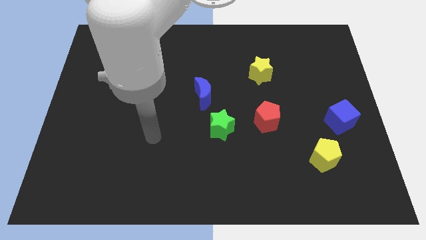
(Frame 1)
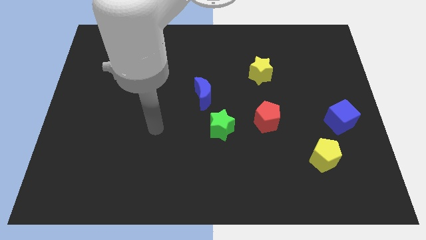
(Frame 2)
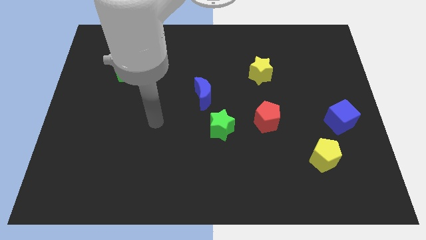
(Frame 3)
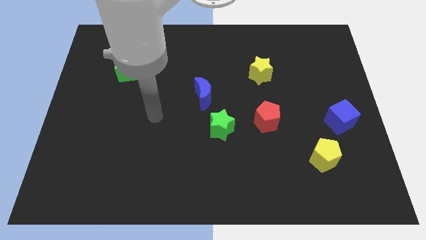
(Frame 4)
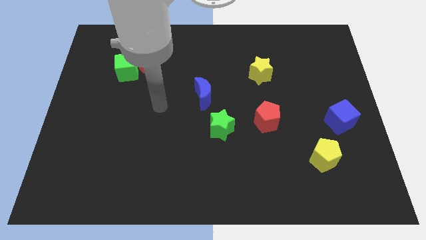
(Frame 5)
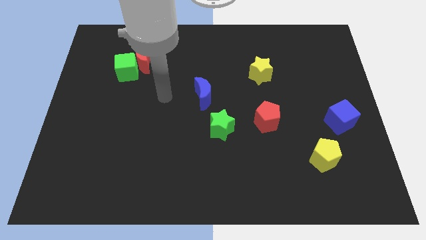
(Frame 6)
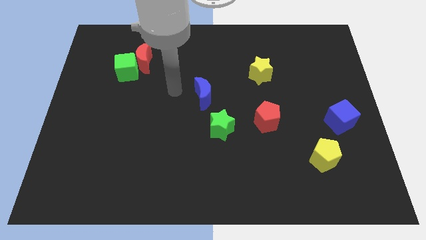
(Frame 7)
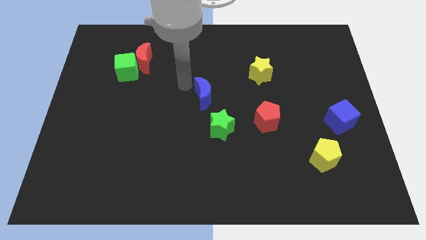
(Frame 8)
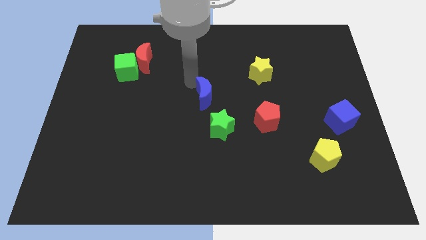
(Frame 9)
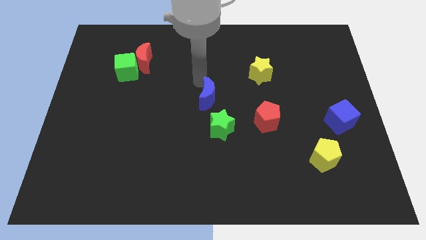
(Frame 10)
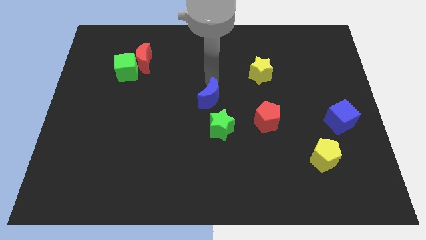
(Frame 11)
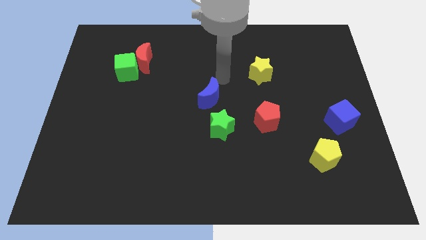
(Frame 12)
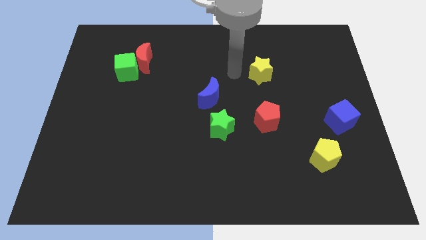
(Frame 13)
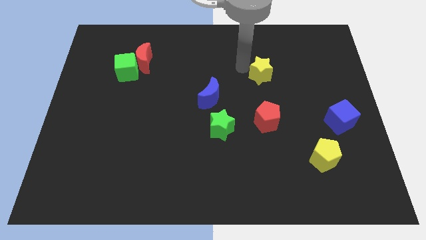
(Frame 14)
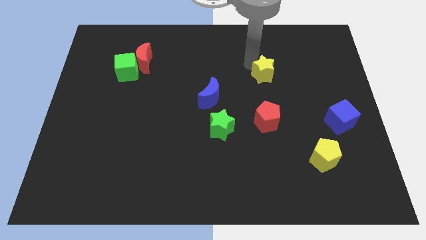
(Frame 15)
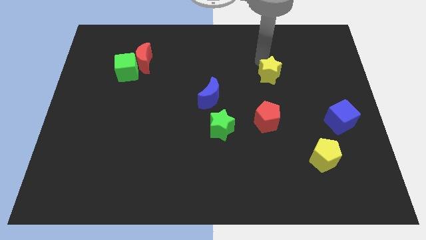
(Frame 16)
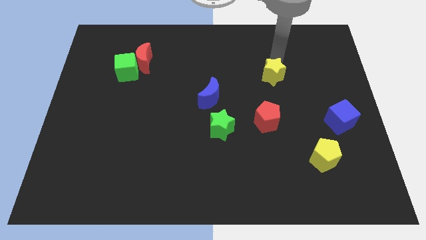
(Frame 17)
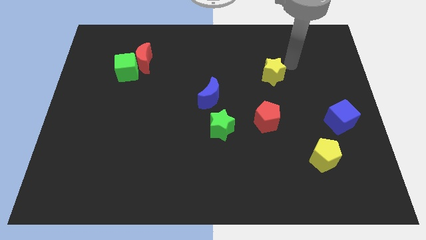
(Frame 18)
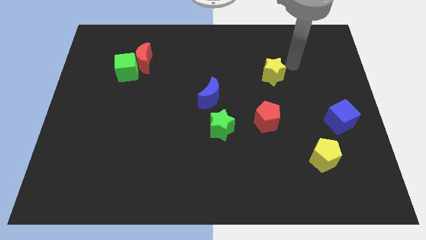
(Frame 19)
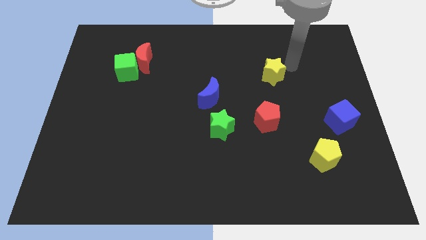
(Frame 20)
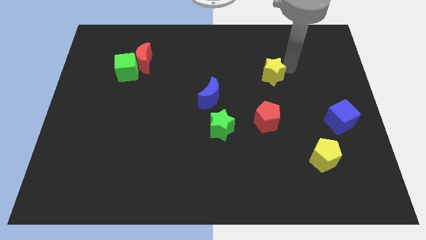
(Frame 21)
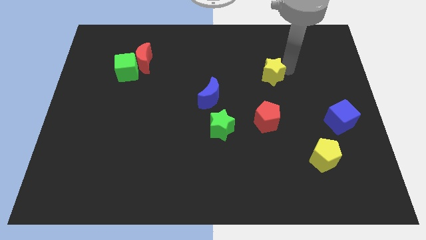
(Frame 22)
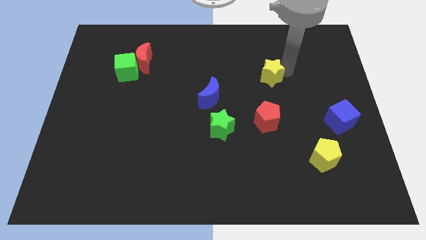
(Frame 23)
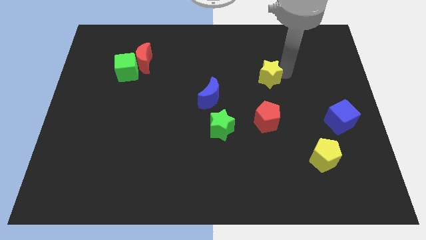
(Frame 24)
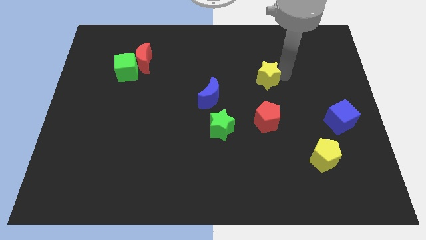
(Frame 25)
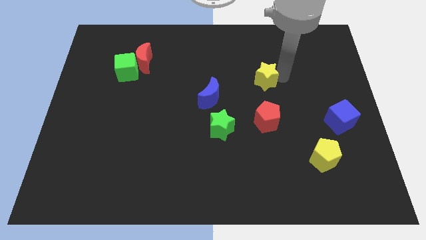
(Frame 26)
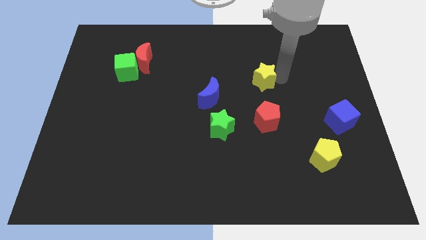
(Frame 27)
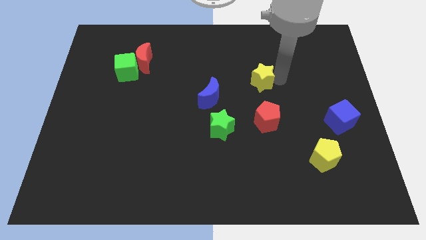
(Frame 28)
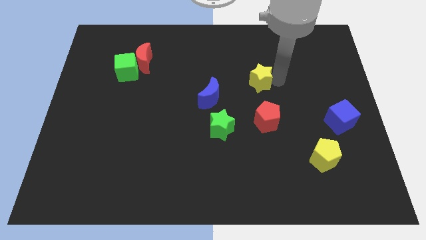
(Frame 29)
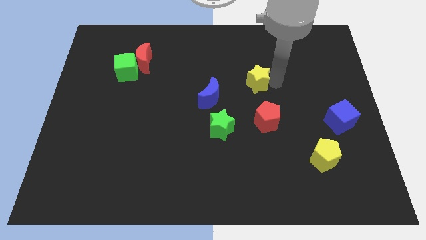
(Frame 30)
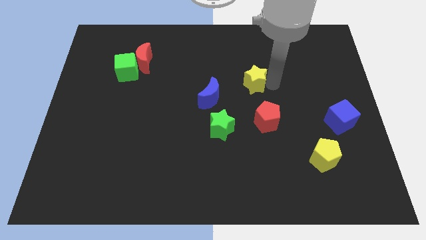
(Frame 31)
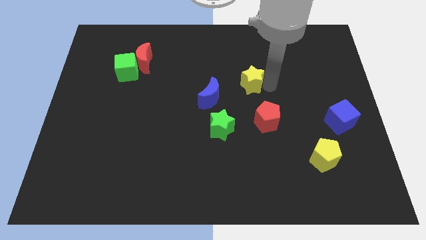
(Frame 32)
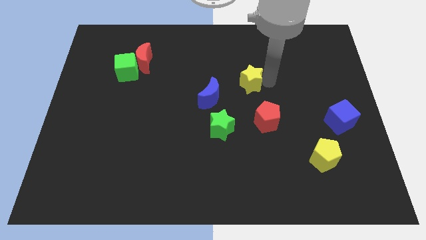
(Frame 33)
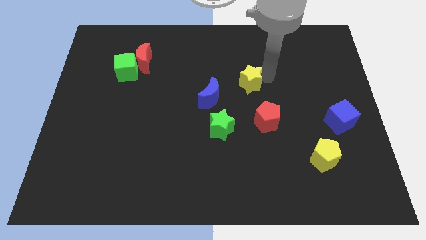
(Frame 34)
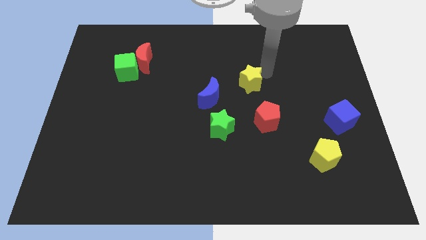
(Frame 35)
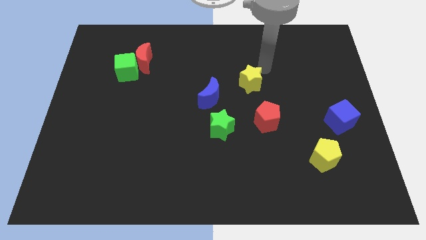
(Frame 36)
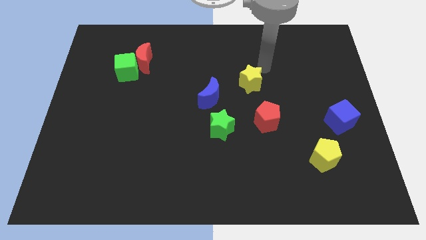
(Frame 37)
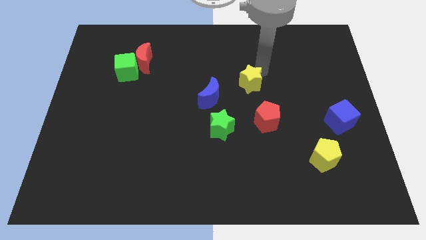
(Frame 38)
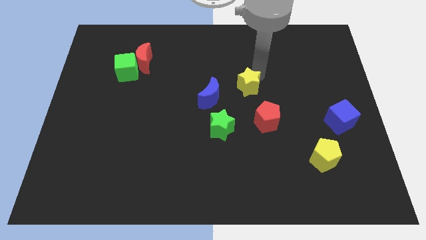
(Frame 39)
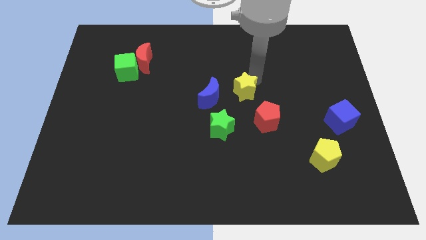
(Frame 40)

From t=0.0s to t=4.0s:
slightly push the yellow star down and to the left

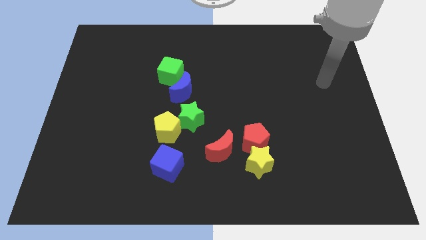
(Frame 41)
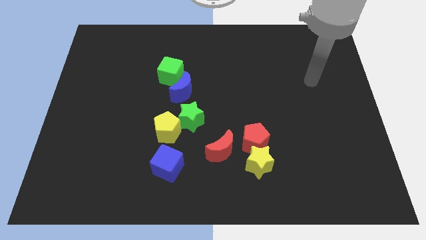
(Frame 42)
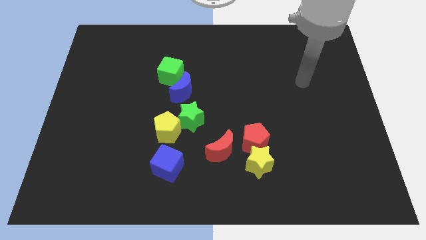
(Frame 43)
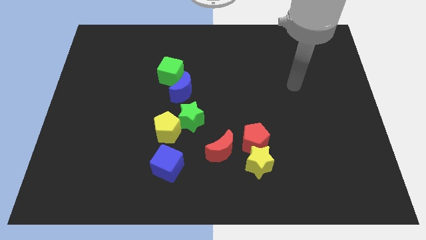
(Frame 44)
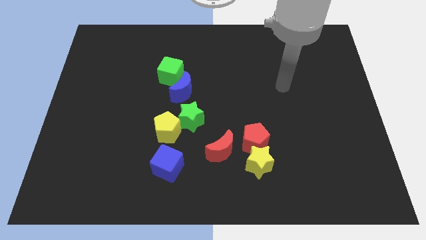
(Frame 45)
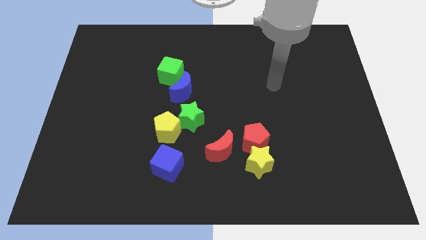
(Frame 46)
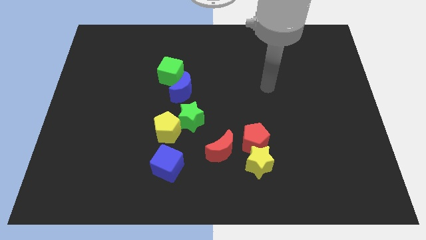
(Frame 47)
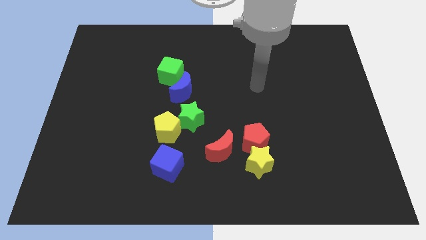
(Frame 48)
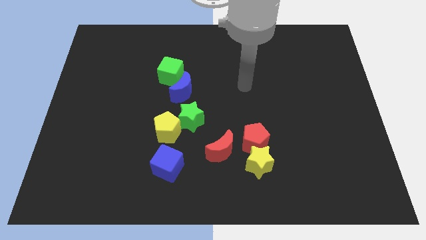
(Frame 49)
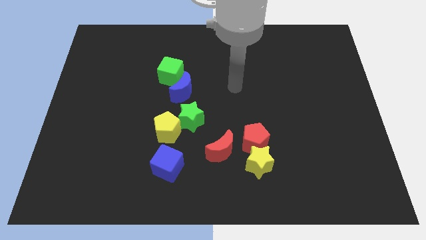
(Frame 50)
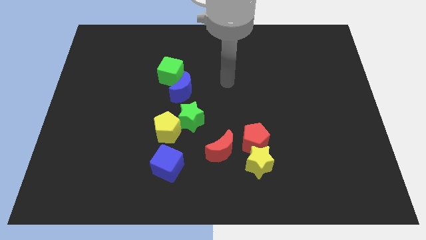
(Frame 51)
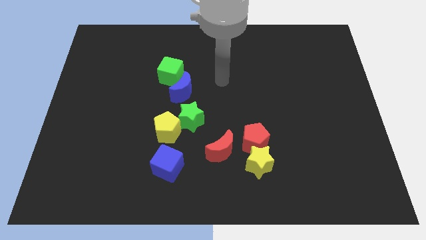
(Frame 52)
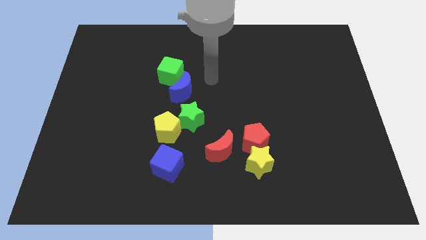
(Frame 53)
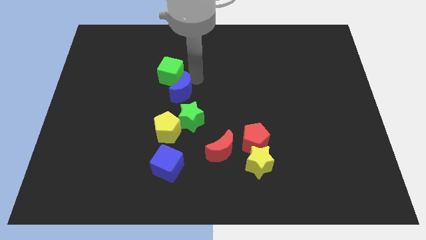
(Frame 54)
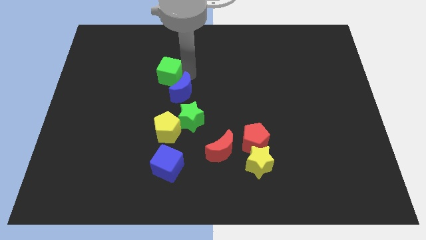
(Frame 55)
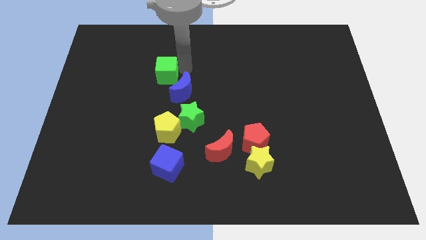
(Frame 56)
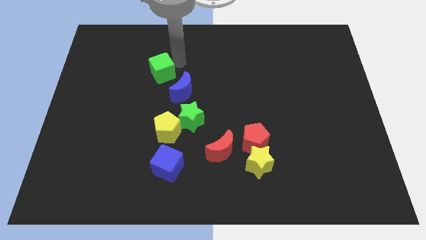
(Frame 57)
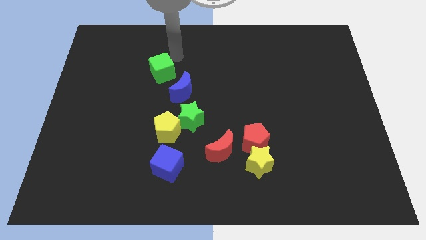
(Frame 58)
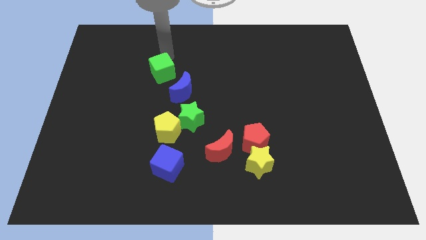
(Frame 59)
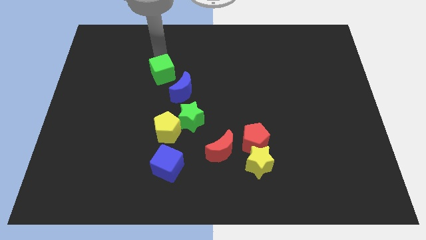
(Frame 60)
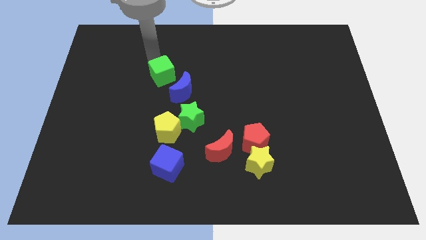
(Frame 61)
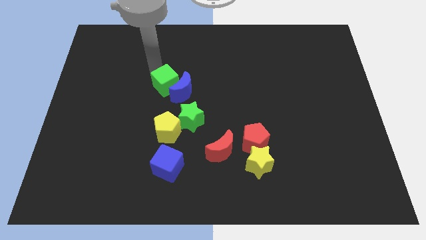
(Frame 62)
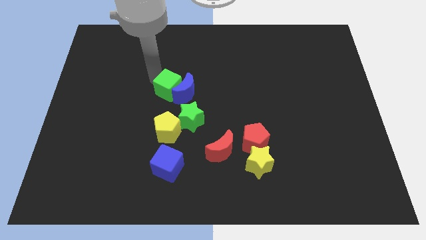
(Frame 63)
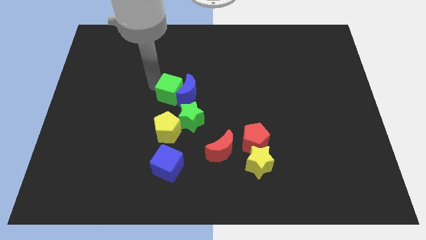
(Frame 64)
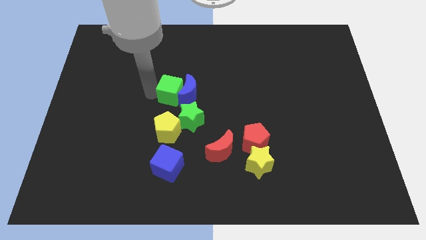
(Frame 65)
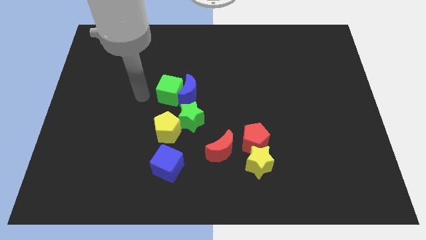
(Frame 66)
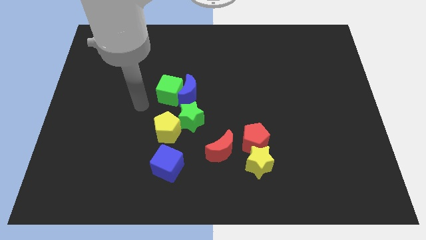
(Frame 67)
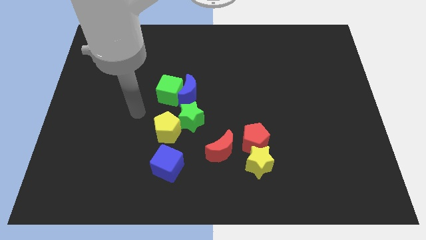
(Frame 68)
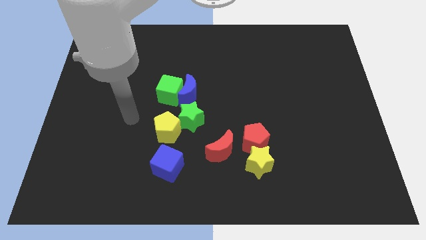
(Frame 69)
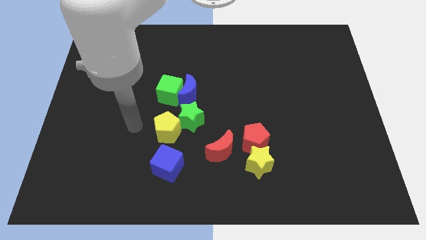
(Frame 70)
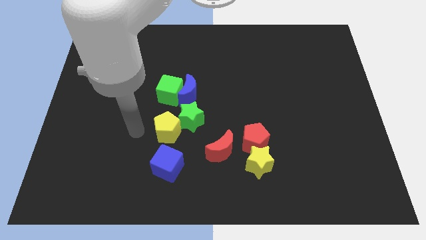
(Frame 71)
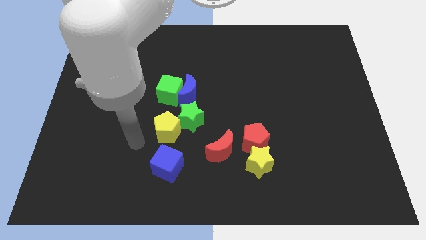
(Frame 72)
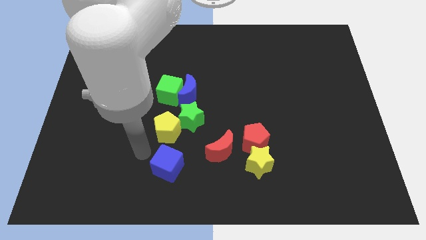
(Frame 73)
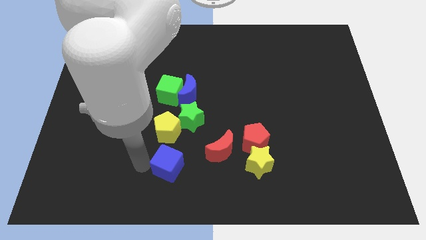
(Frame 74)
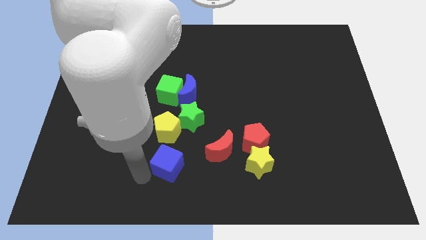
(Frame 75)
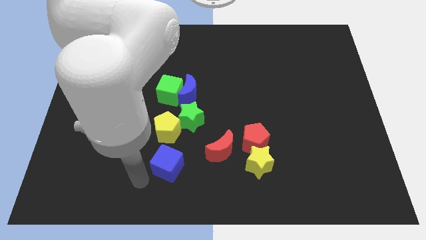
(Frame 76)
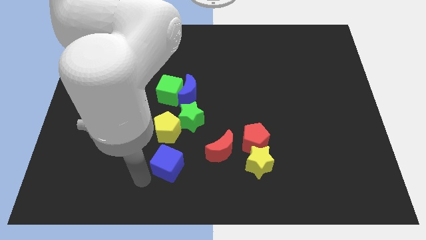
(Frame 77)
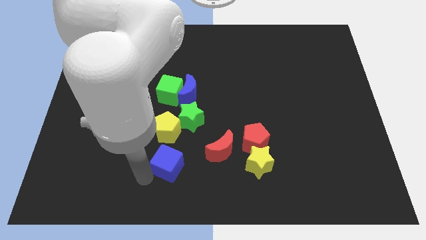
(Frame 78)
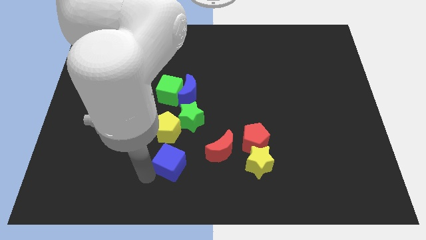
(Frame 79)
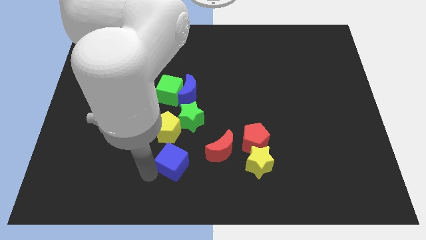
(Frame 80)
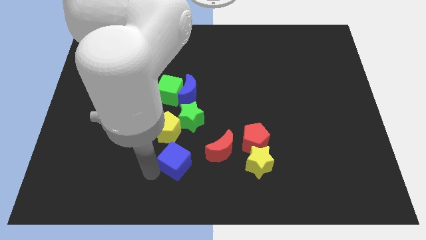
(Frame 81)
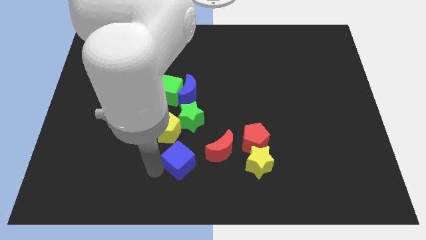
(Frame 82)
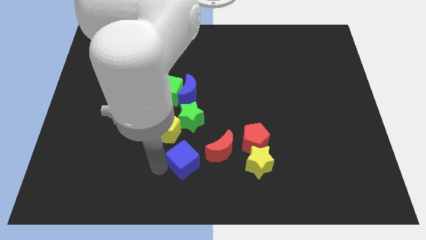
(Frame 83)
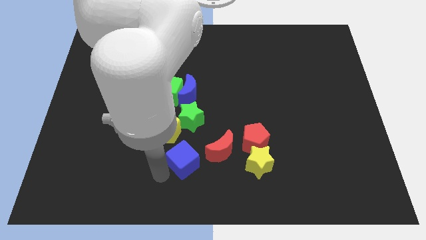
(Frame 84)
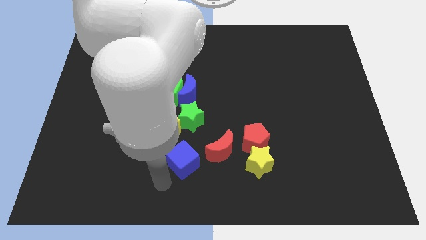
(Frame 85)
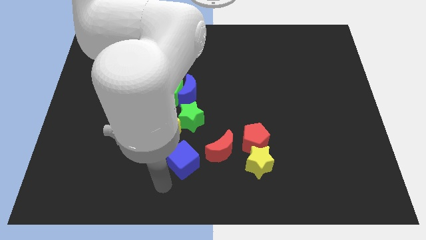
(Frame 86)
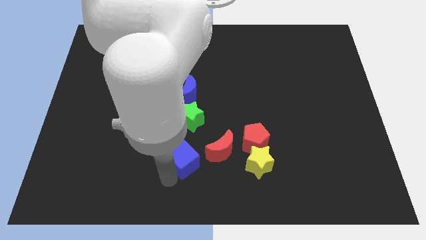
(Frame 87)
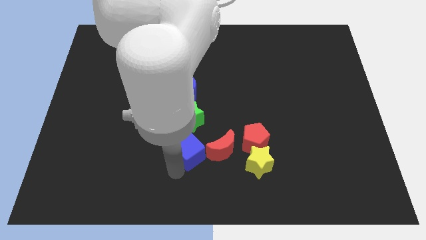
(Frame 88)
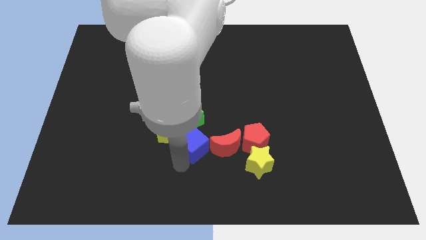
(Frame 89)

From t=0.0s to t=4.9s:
slide the blue cube slightly up and to the right
